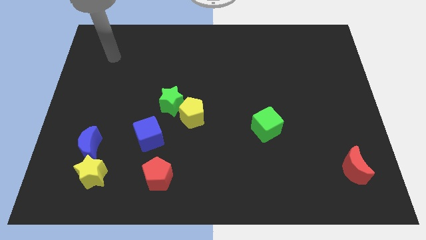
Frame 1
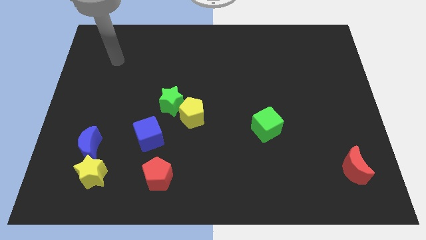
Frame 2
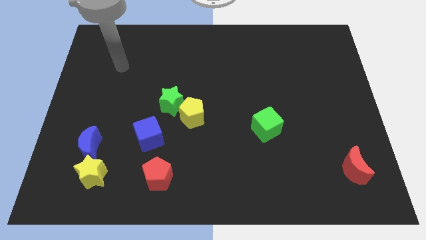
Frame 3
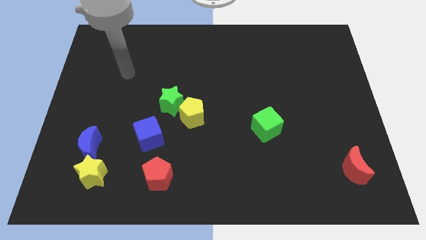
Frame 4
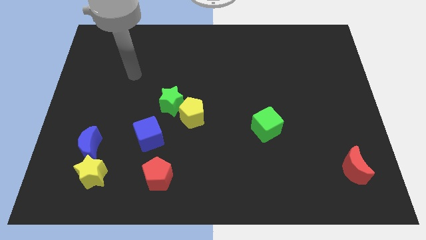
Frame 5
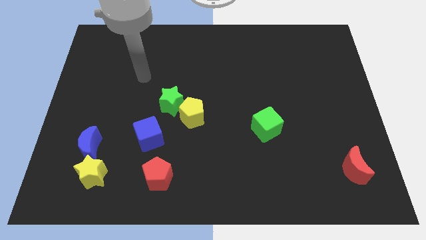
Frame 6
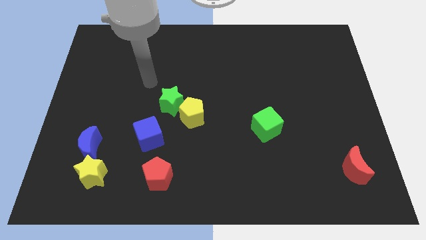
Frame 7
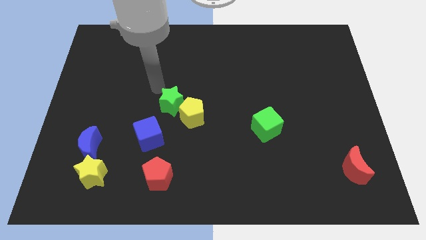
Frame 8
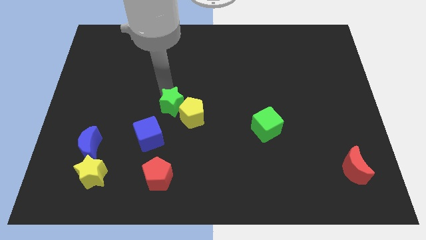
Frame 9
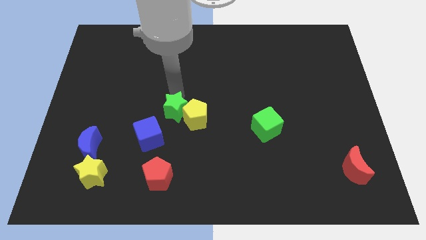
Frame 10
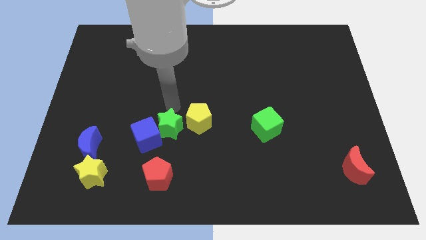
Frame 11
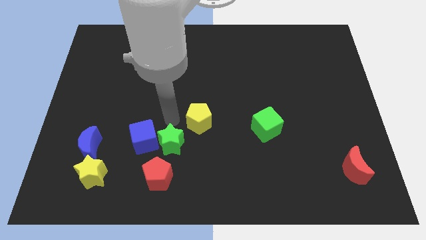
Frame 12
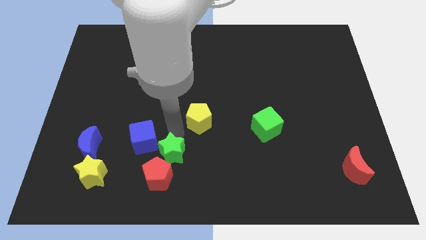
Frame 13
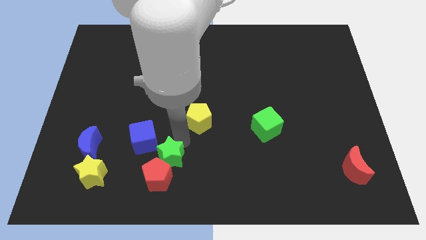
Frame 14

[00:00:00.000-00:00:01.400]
separate the yellow pentagon from the green star

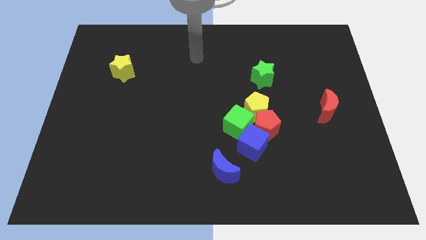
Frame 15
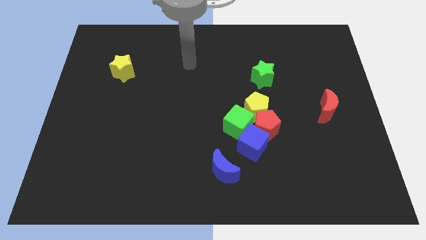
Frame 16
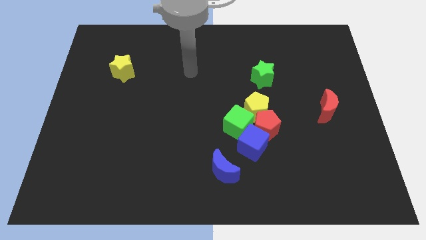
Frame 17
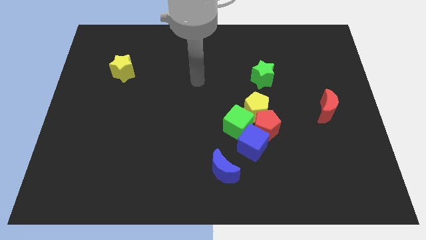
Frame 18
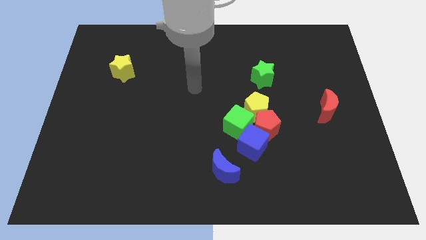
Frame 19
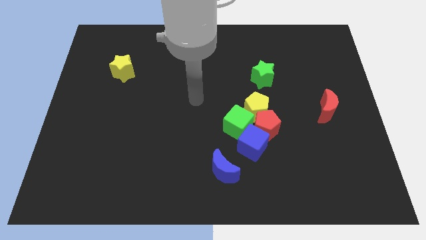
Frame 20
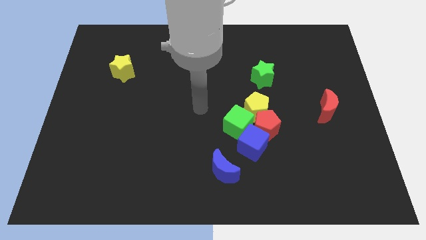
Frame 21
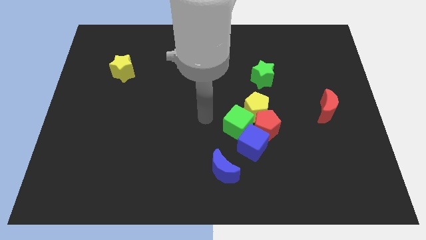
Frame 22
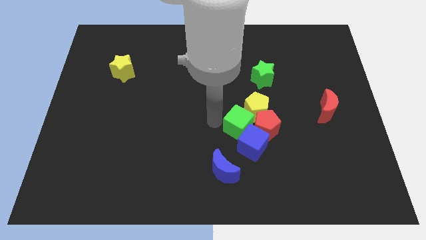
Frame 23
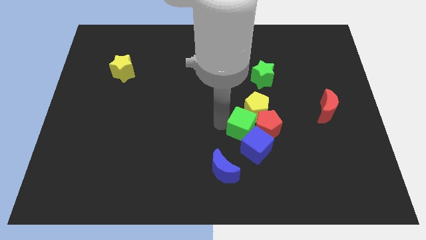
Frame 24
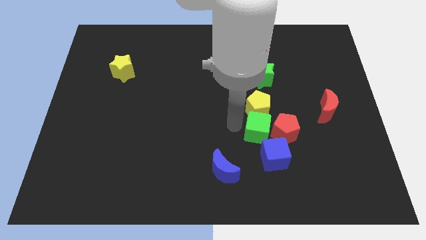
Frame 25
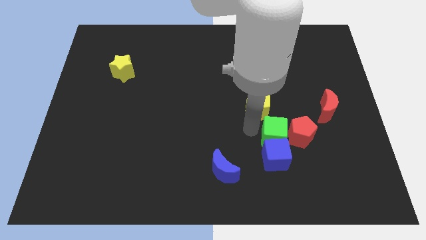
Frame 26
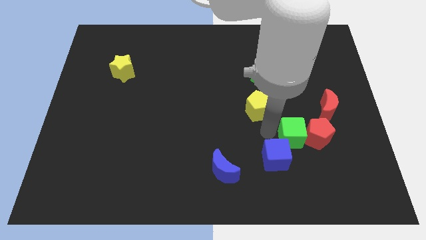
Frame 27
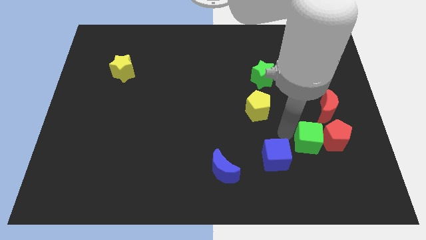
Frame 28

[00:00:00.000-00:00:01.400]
pull the red pentagon apart from the yellow pentagon, blue cube, and green cube

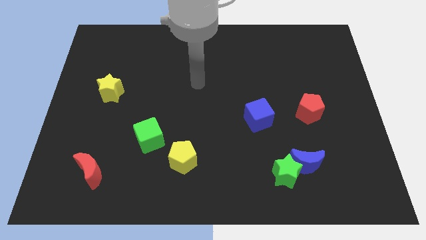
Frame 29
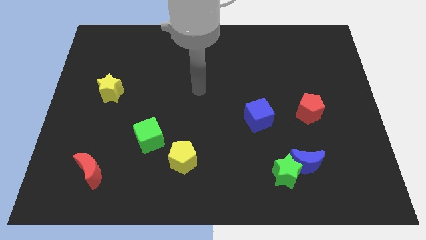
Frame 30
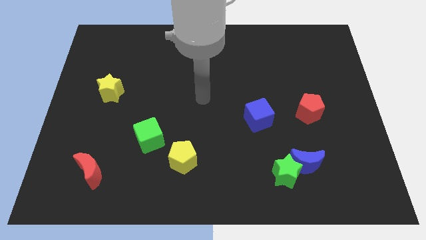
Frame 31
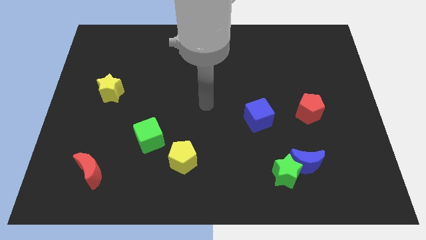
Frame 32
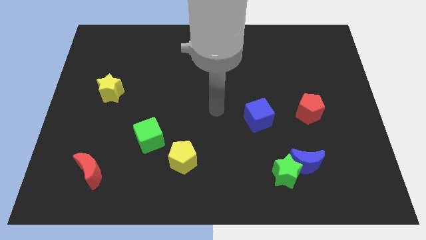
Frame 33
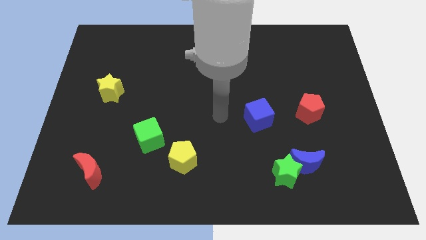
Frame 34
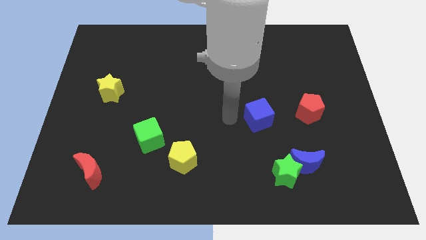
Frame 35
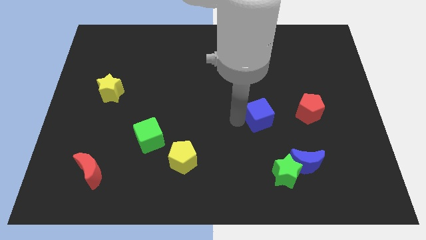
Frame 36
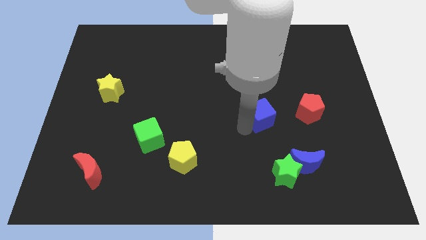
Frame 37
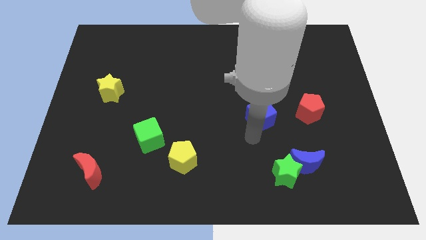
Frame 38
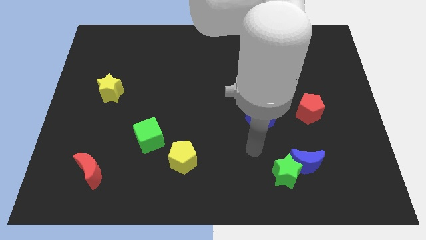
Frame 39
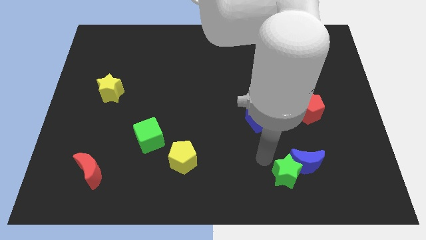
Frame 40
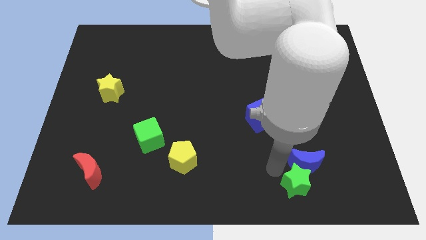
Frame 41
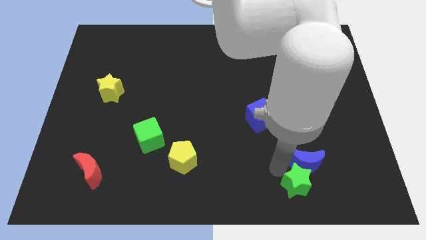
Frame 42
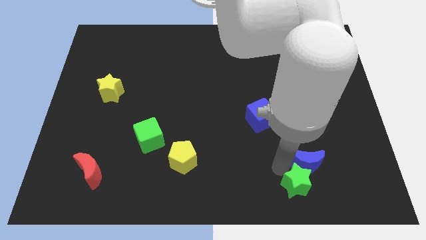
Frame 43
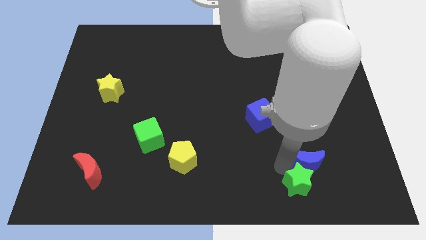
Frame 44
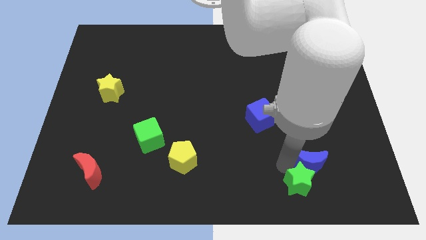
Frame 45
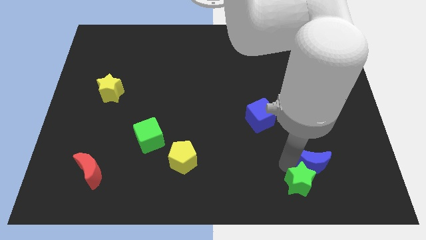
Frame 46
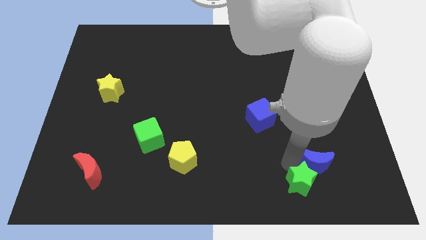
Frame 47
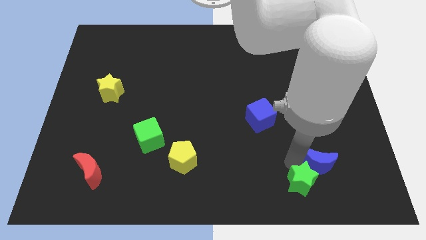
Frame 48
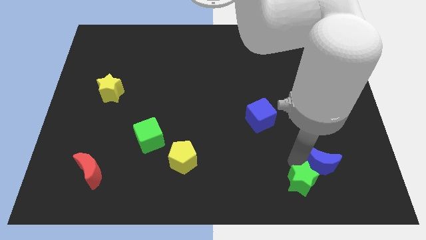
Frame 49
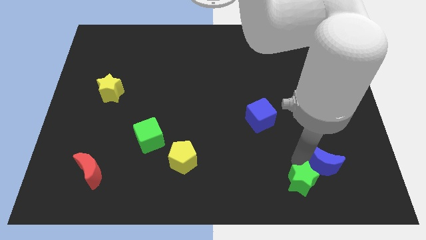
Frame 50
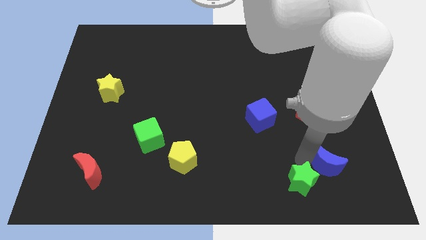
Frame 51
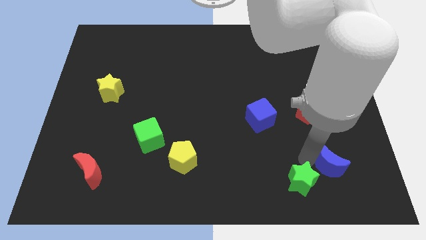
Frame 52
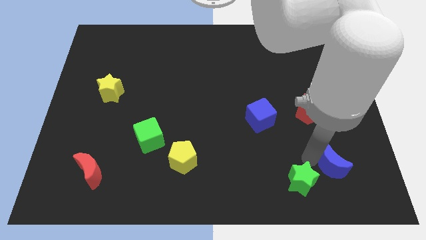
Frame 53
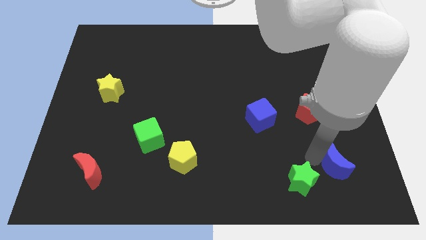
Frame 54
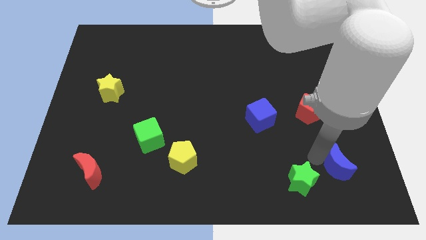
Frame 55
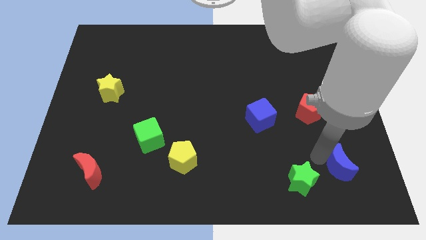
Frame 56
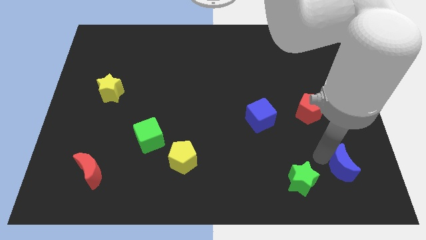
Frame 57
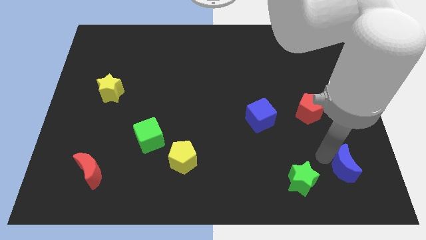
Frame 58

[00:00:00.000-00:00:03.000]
separate the blue moon from the green star

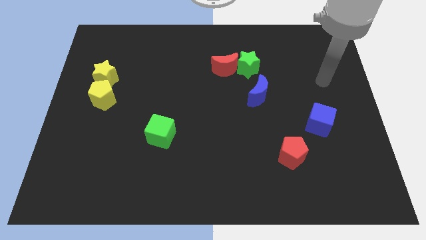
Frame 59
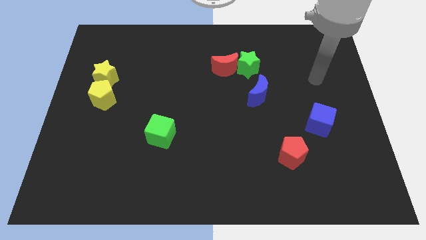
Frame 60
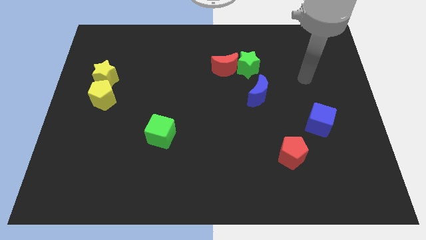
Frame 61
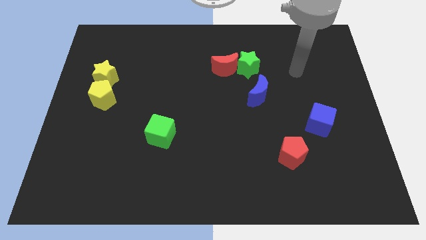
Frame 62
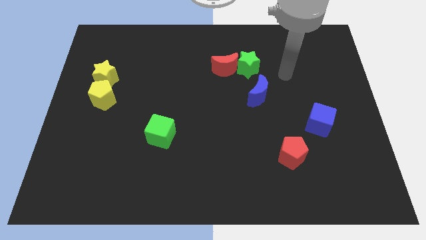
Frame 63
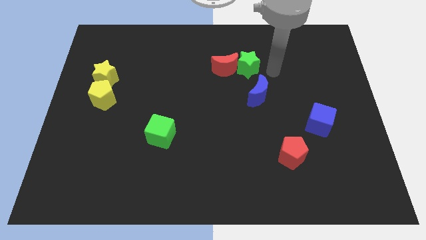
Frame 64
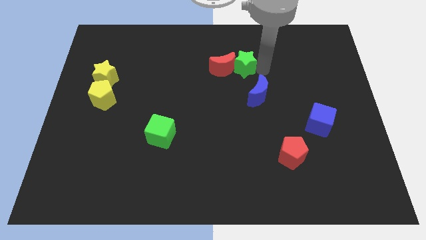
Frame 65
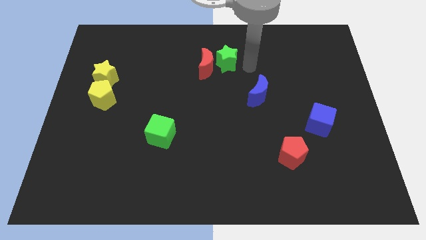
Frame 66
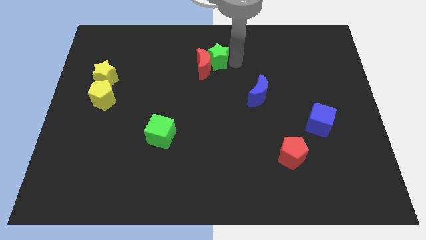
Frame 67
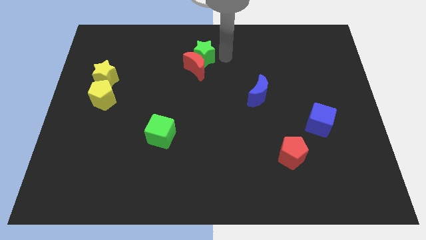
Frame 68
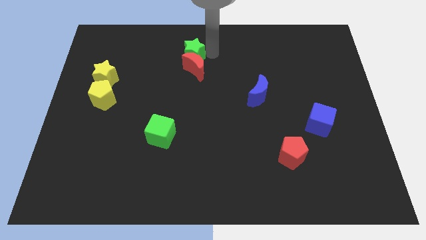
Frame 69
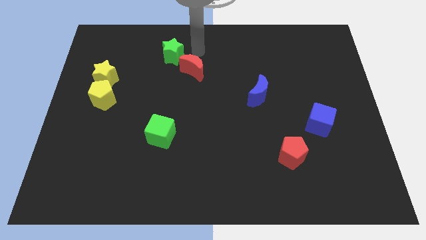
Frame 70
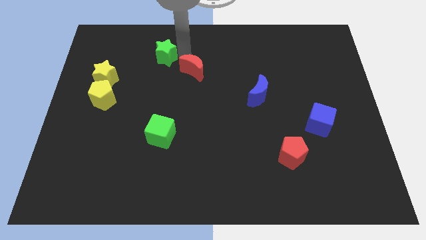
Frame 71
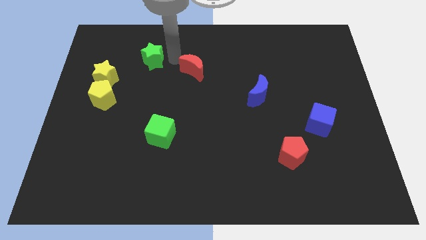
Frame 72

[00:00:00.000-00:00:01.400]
pull the red moon apart from the green star

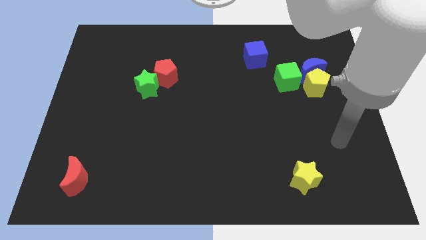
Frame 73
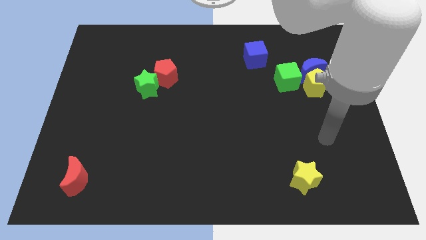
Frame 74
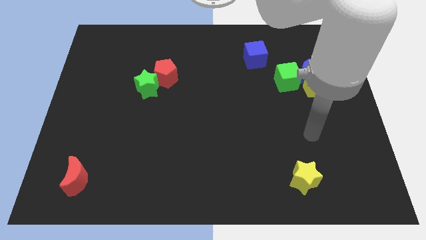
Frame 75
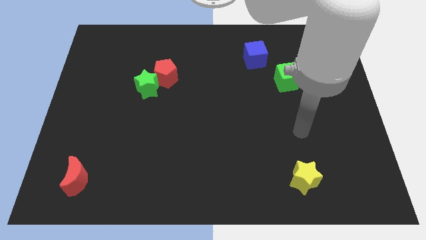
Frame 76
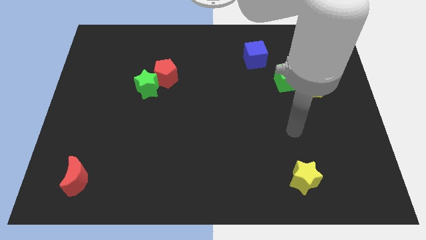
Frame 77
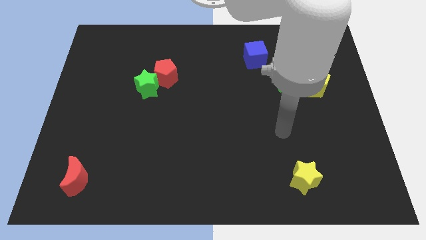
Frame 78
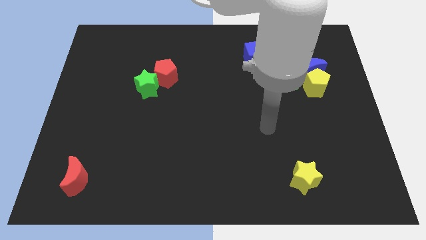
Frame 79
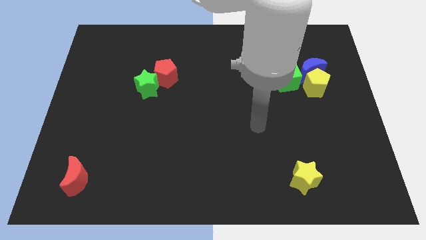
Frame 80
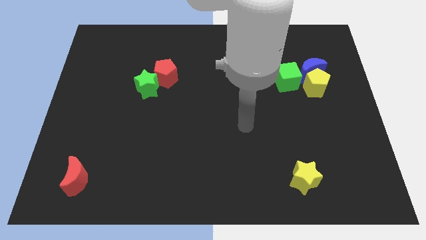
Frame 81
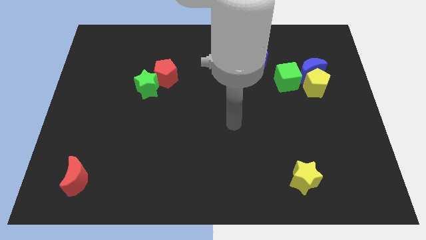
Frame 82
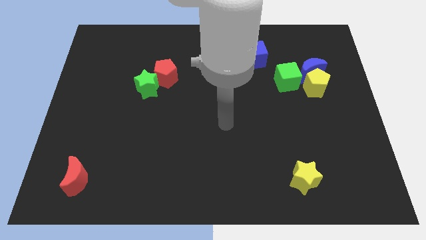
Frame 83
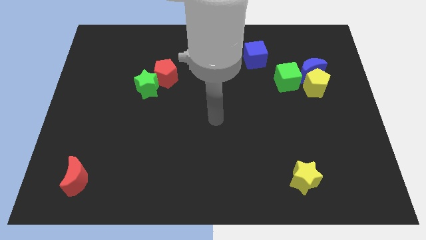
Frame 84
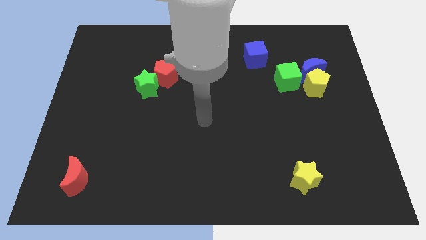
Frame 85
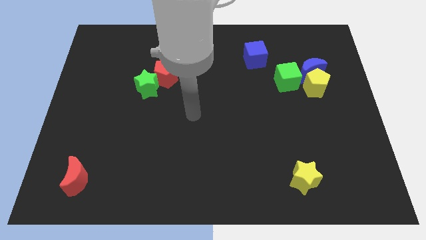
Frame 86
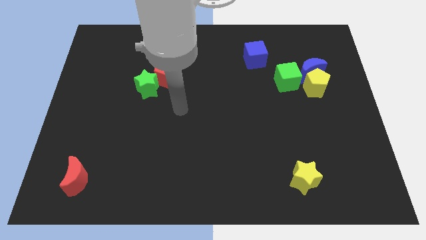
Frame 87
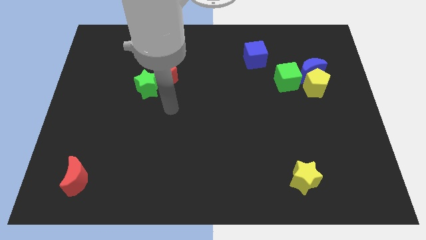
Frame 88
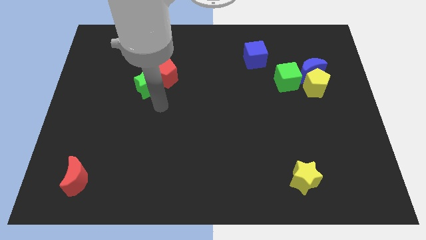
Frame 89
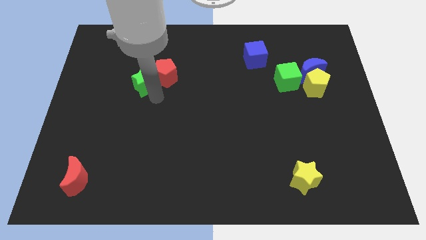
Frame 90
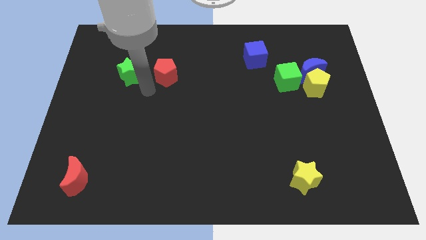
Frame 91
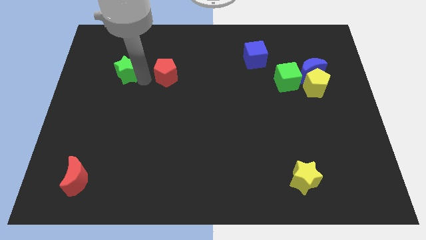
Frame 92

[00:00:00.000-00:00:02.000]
separate the red pentagon from the green star

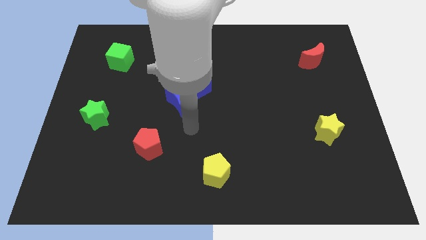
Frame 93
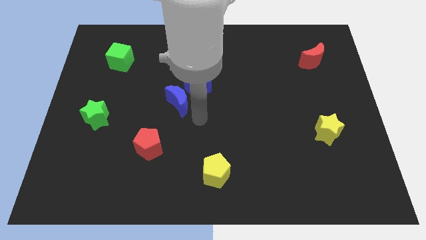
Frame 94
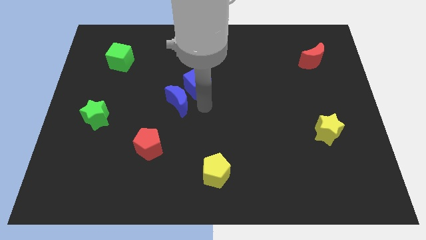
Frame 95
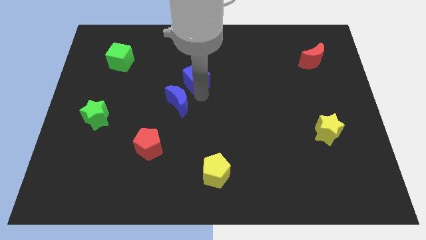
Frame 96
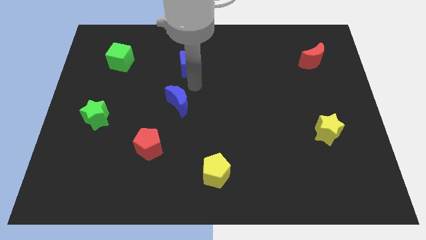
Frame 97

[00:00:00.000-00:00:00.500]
move the blue moon away from the blue cube
